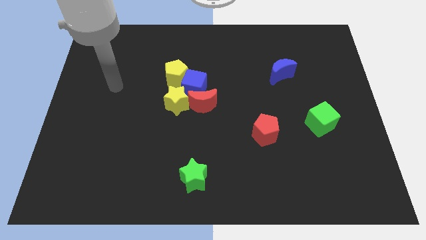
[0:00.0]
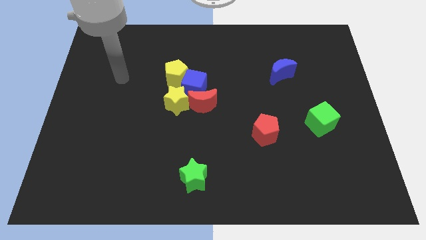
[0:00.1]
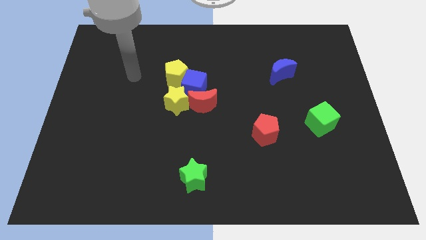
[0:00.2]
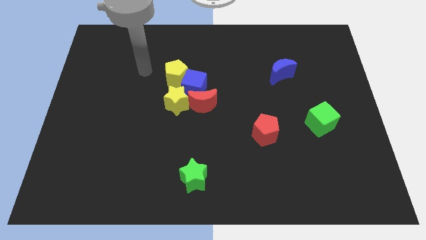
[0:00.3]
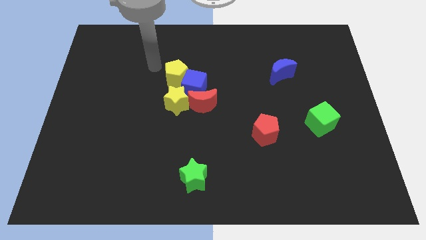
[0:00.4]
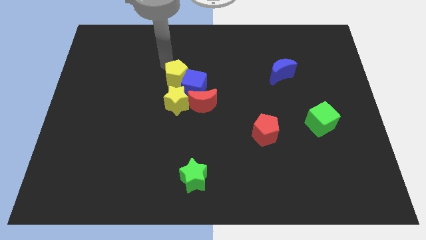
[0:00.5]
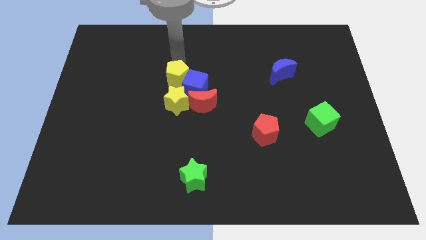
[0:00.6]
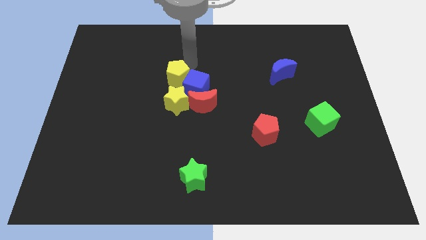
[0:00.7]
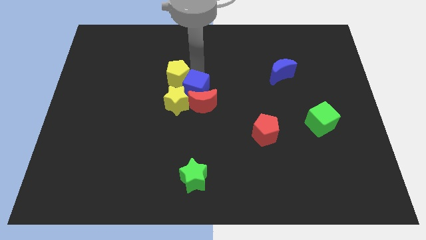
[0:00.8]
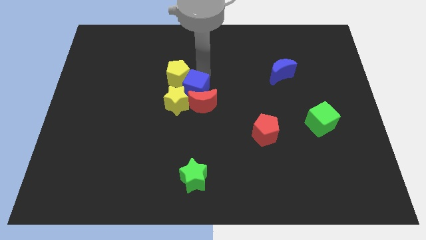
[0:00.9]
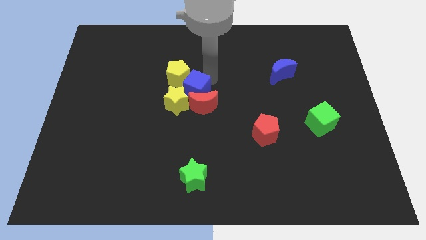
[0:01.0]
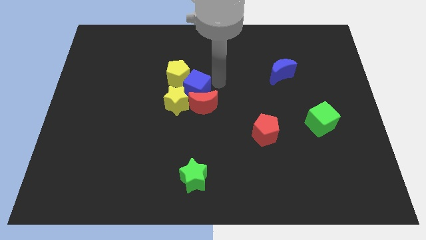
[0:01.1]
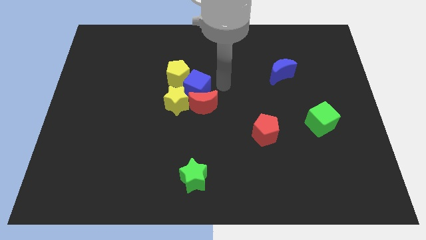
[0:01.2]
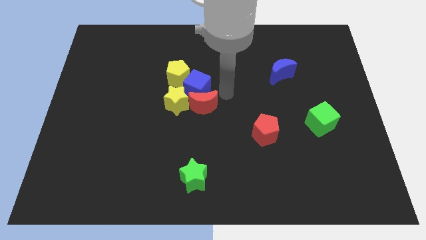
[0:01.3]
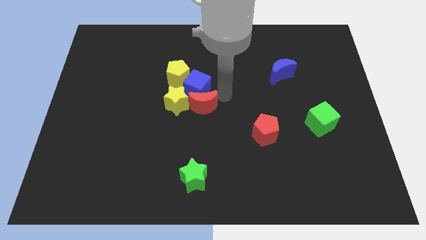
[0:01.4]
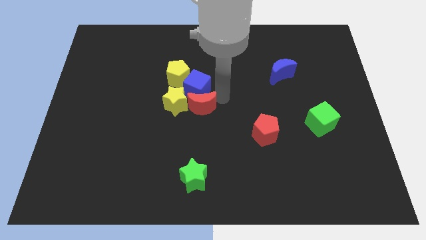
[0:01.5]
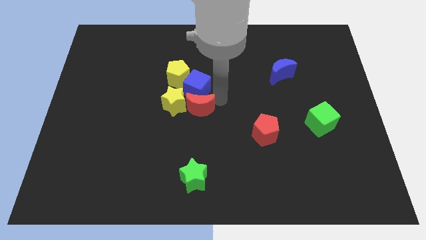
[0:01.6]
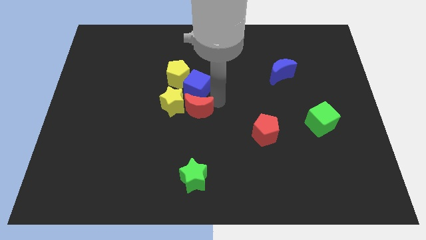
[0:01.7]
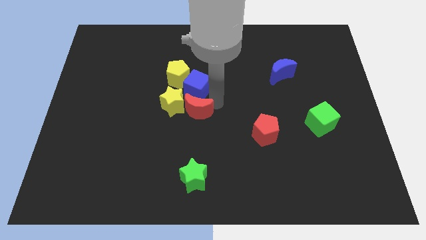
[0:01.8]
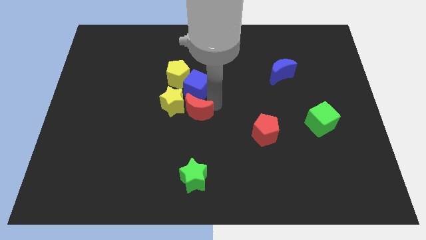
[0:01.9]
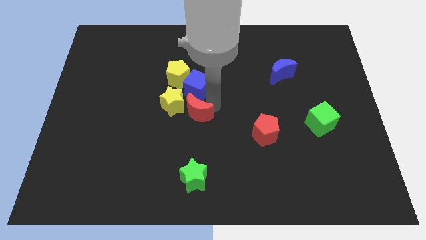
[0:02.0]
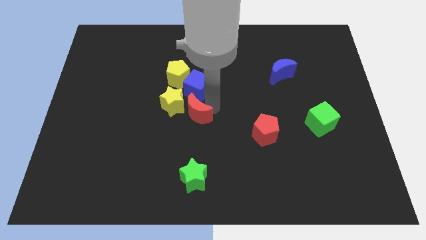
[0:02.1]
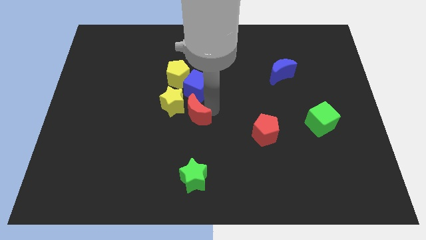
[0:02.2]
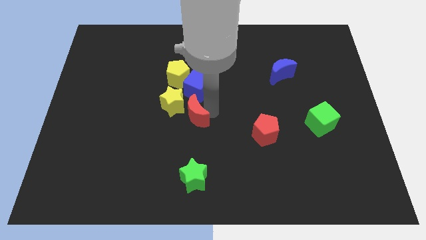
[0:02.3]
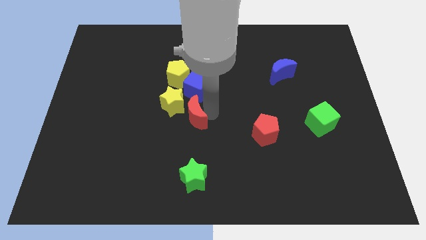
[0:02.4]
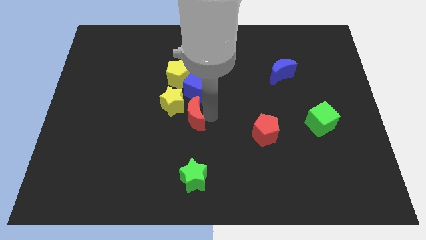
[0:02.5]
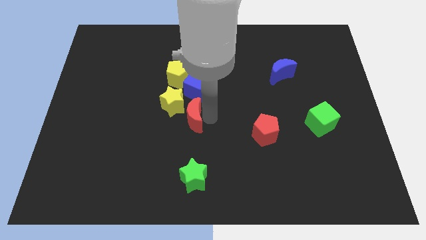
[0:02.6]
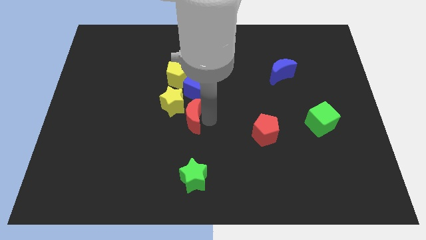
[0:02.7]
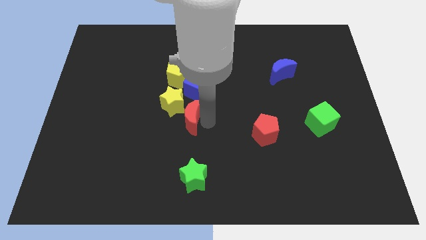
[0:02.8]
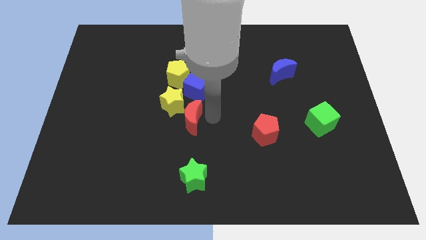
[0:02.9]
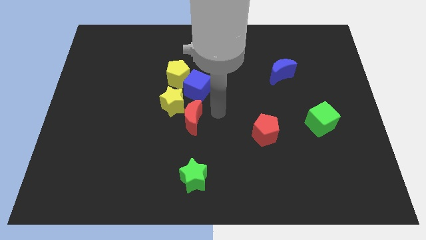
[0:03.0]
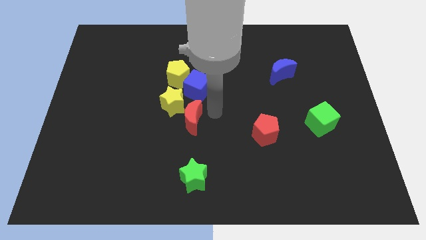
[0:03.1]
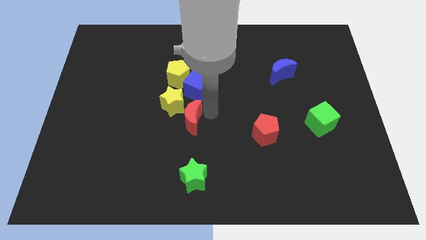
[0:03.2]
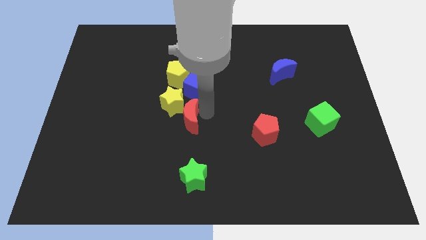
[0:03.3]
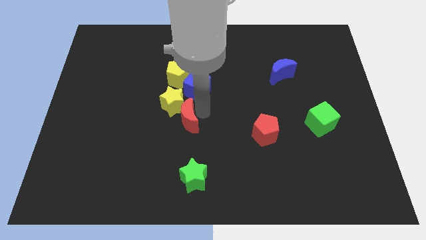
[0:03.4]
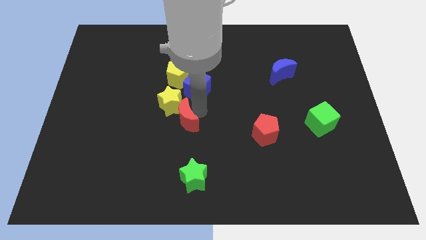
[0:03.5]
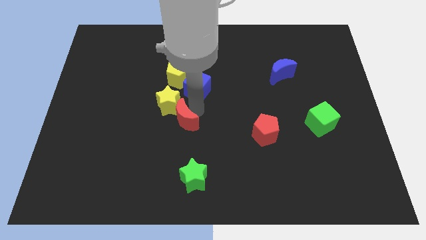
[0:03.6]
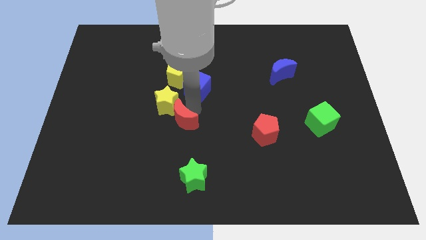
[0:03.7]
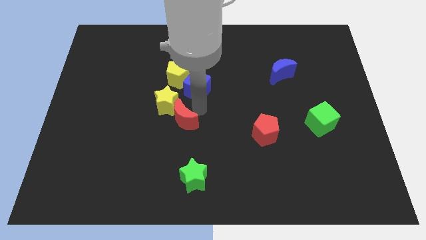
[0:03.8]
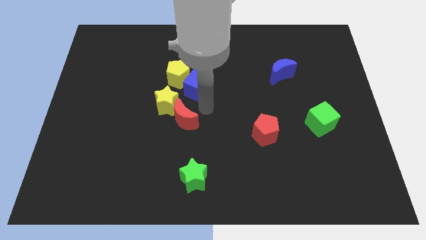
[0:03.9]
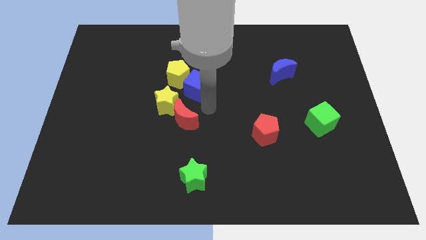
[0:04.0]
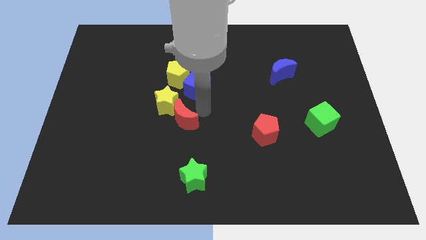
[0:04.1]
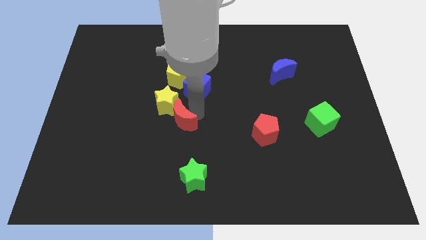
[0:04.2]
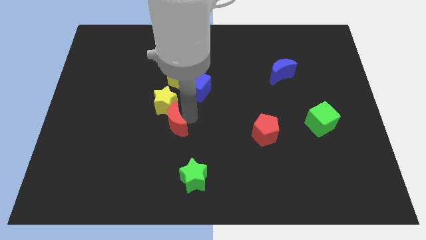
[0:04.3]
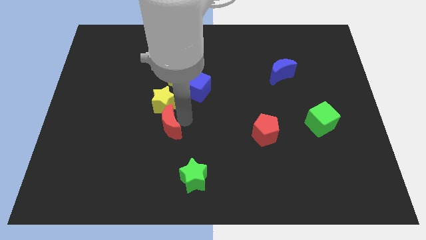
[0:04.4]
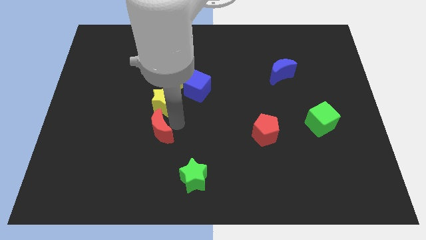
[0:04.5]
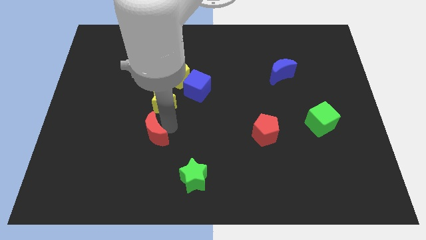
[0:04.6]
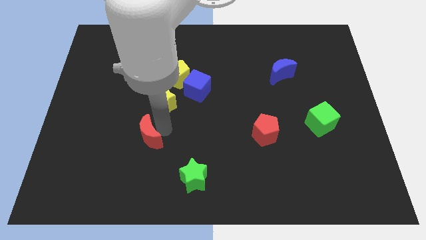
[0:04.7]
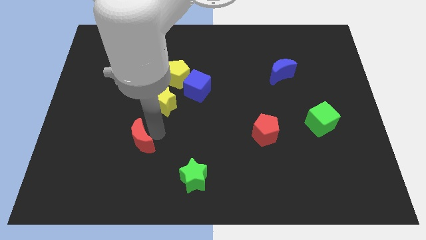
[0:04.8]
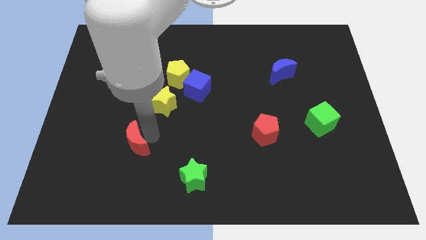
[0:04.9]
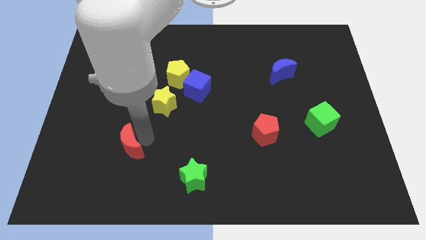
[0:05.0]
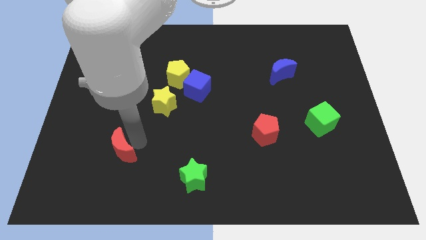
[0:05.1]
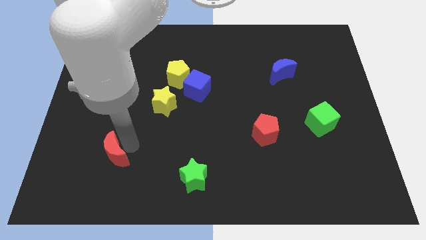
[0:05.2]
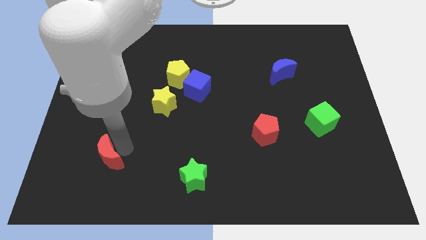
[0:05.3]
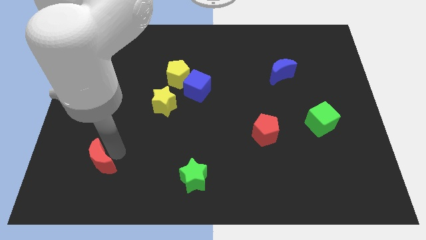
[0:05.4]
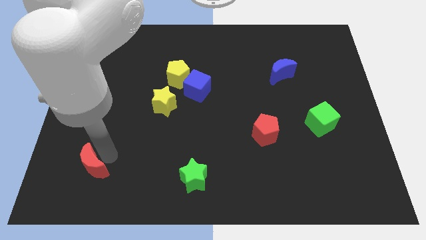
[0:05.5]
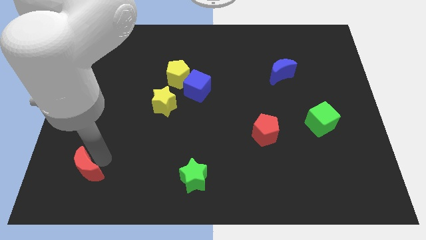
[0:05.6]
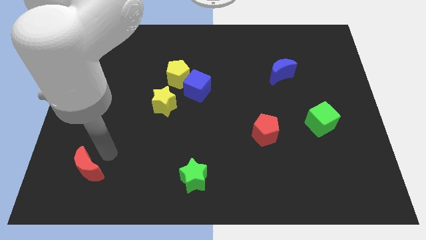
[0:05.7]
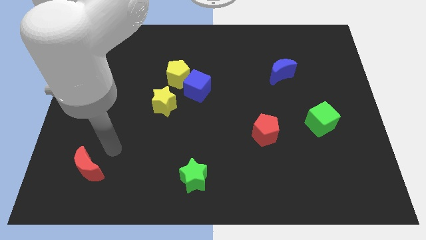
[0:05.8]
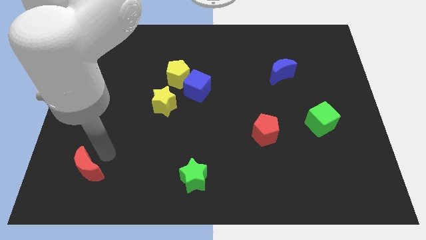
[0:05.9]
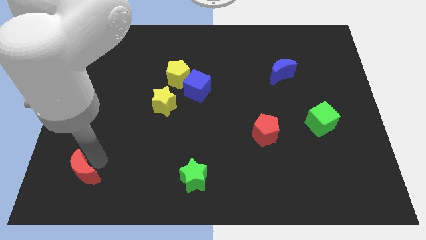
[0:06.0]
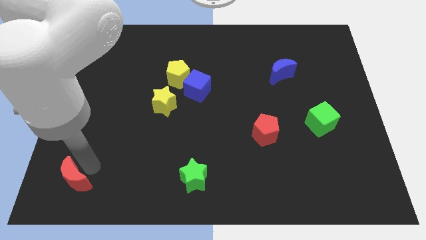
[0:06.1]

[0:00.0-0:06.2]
push the red moon to the bottom left of the board
